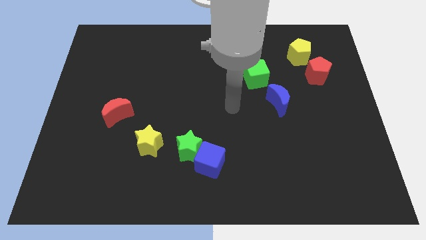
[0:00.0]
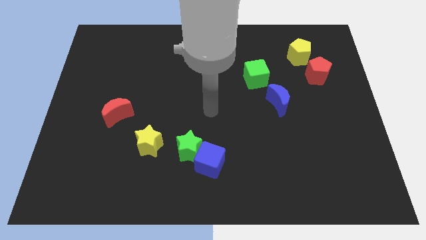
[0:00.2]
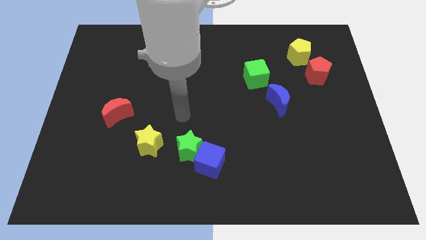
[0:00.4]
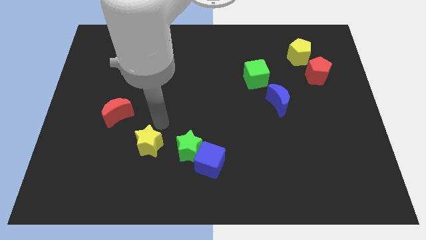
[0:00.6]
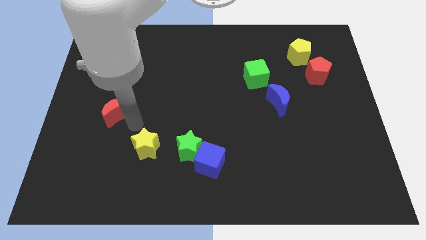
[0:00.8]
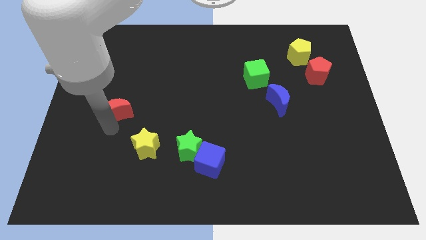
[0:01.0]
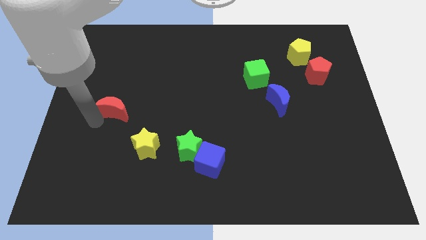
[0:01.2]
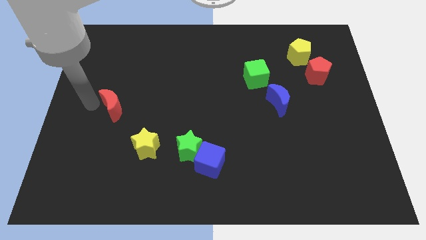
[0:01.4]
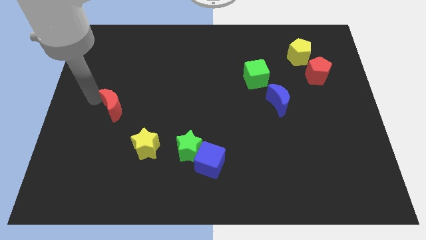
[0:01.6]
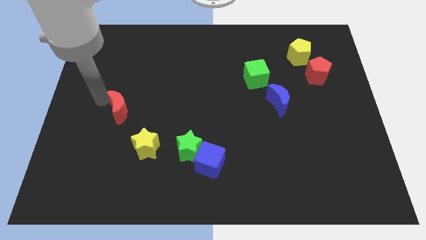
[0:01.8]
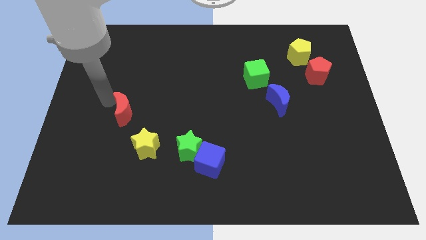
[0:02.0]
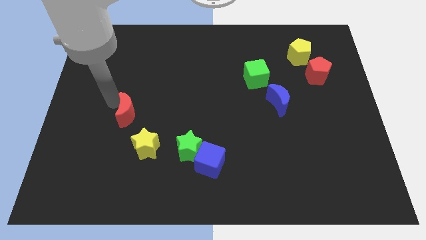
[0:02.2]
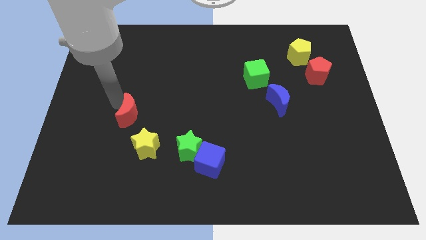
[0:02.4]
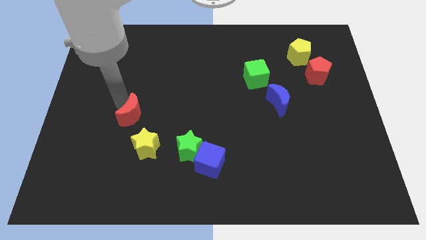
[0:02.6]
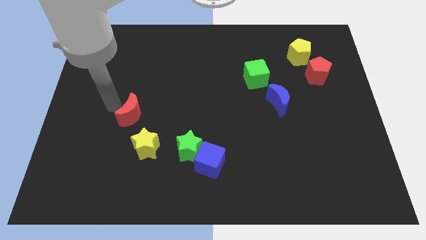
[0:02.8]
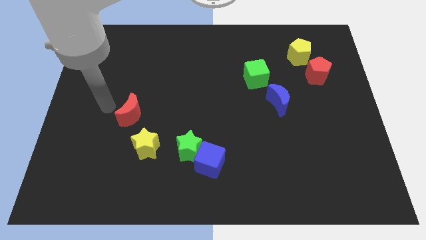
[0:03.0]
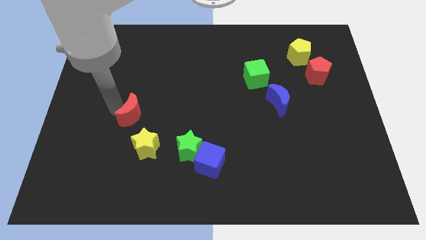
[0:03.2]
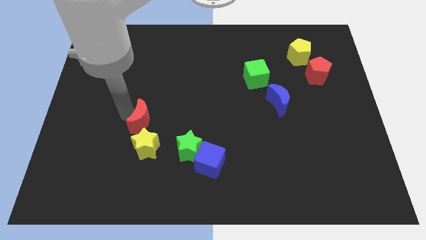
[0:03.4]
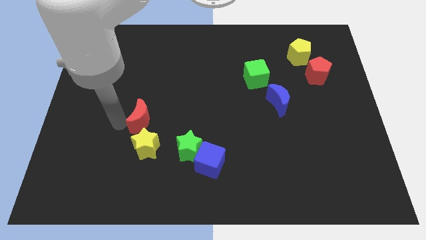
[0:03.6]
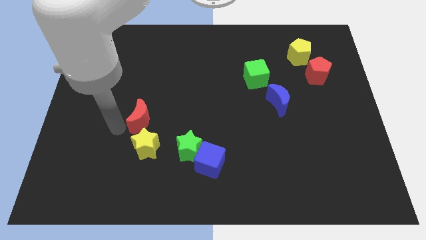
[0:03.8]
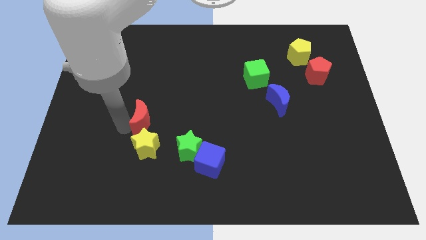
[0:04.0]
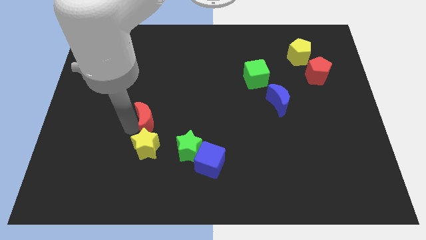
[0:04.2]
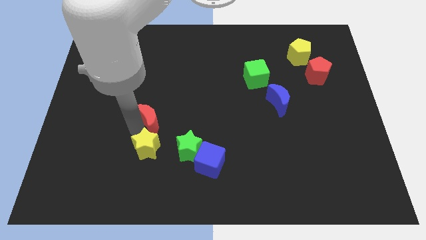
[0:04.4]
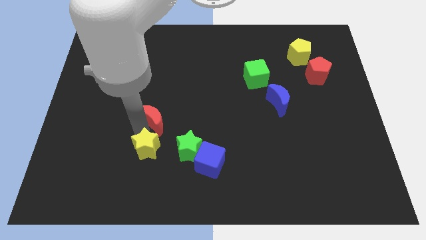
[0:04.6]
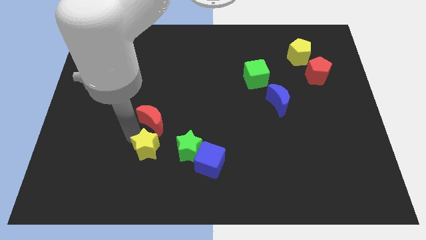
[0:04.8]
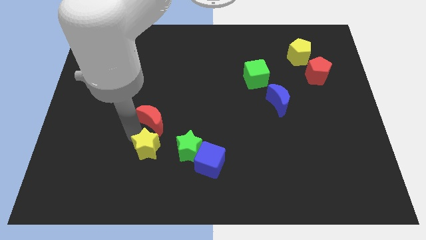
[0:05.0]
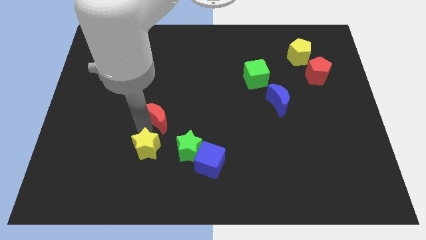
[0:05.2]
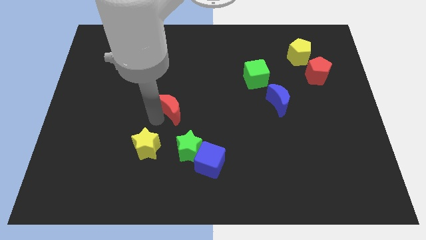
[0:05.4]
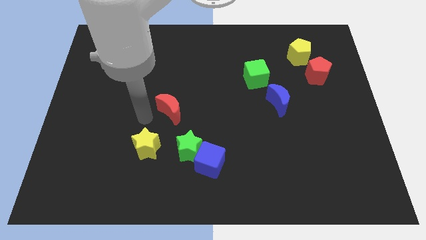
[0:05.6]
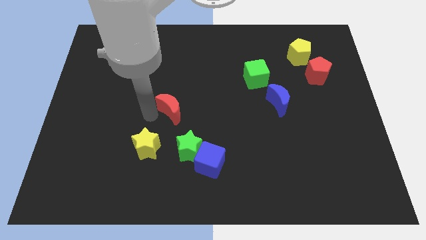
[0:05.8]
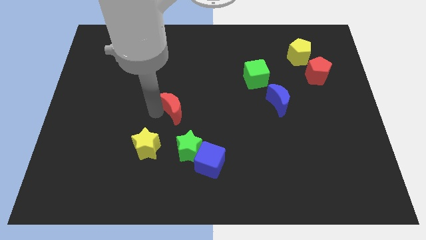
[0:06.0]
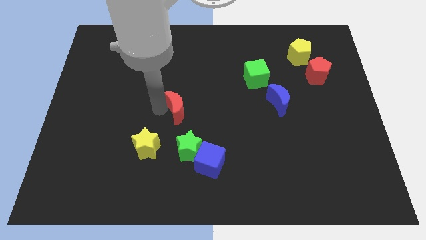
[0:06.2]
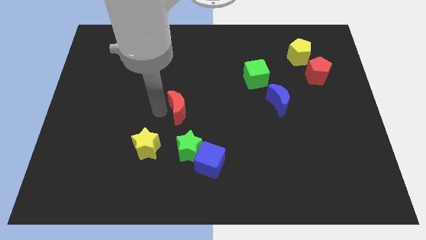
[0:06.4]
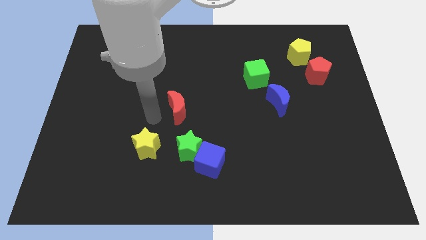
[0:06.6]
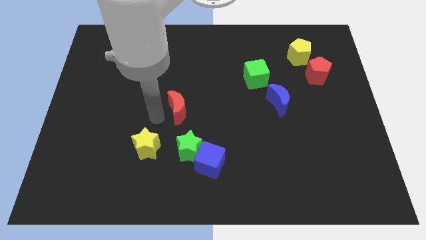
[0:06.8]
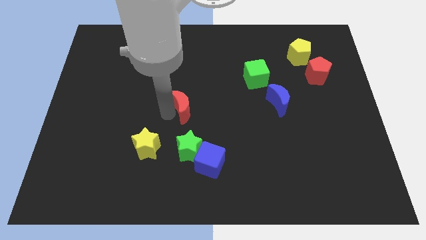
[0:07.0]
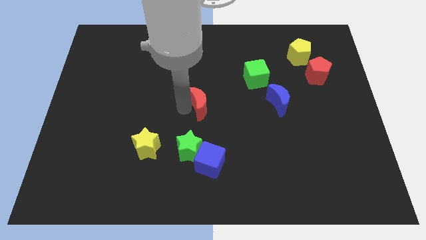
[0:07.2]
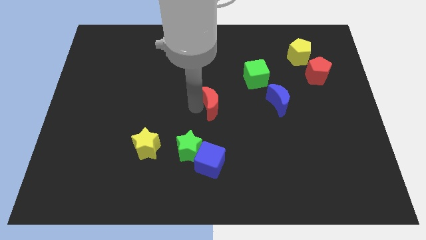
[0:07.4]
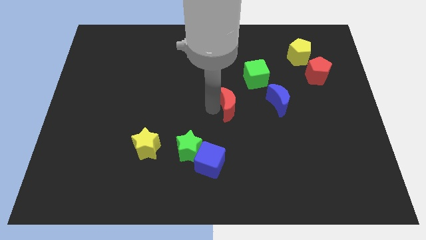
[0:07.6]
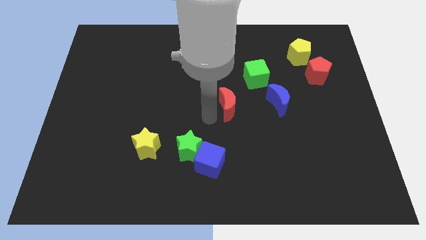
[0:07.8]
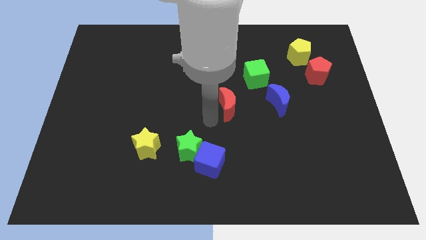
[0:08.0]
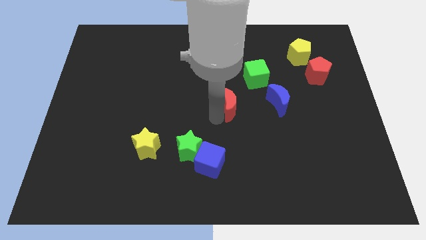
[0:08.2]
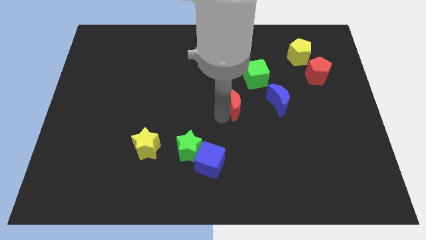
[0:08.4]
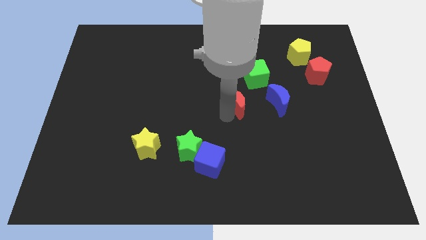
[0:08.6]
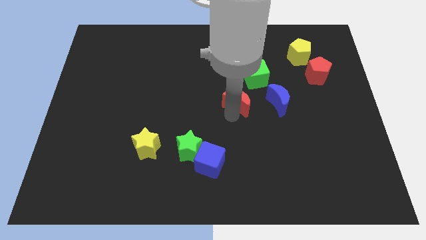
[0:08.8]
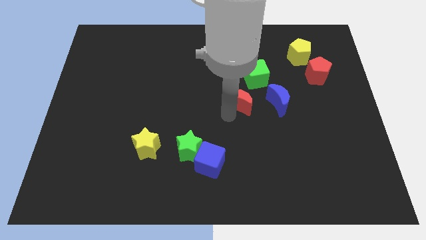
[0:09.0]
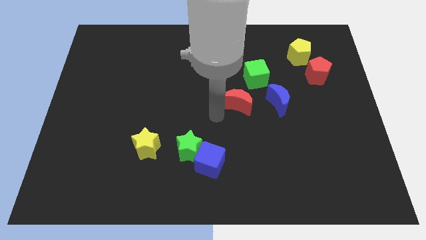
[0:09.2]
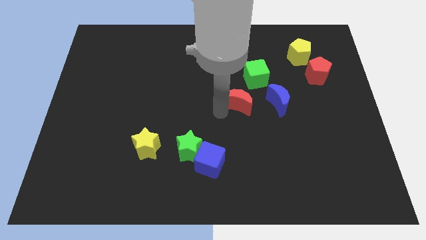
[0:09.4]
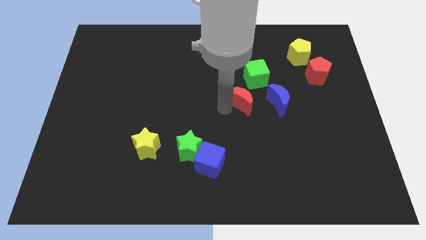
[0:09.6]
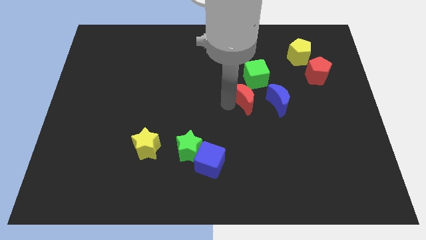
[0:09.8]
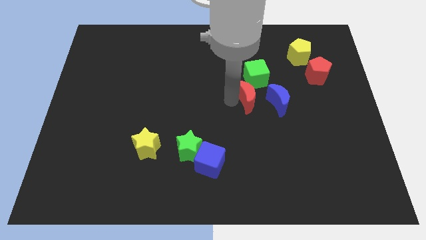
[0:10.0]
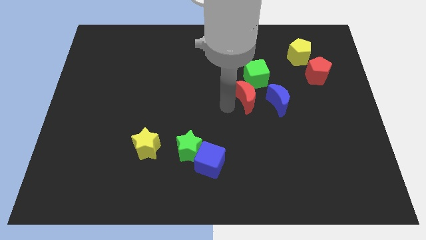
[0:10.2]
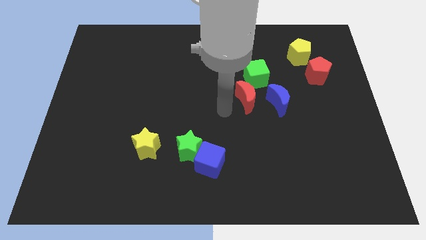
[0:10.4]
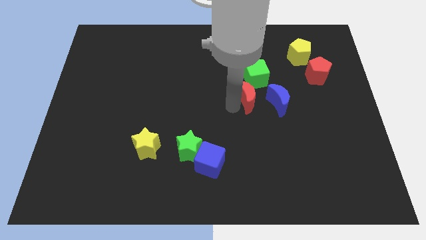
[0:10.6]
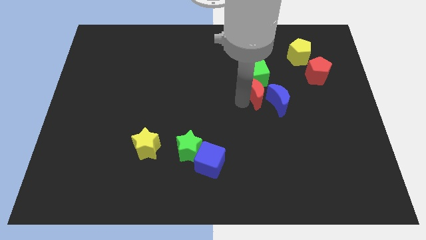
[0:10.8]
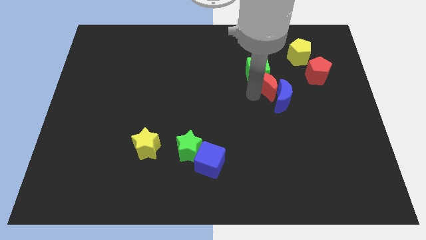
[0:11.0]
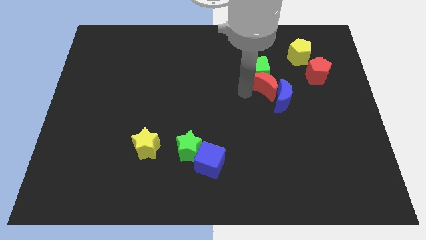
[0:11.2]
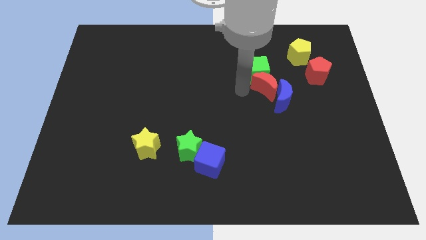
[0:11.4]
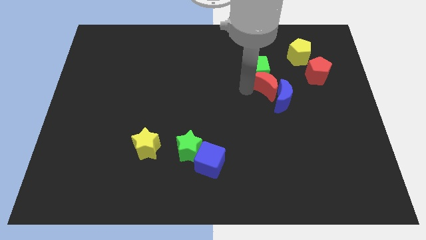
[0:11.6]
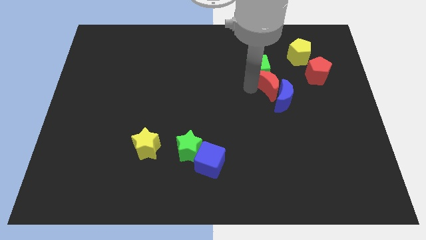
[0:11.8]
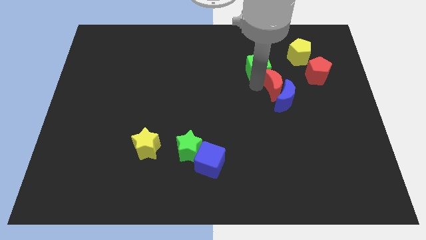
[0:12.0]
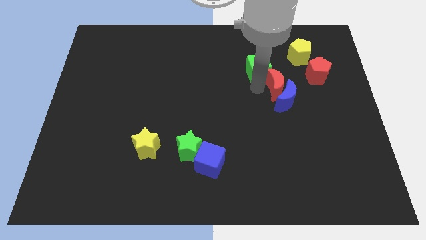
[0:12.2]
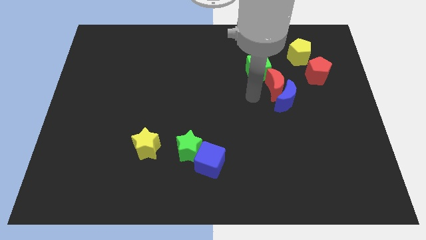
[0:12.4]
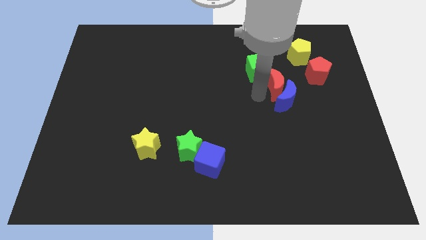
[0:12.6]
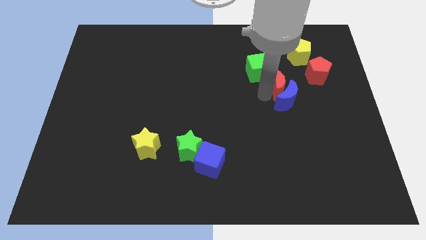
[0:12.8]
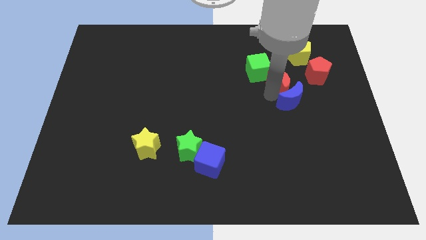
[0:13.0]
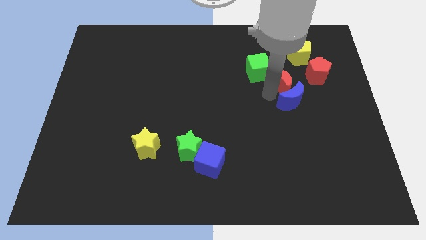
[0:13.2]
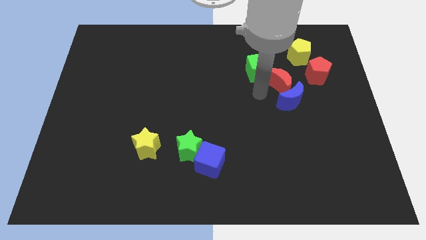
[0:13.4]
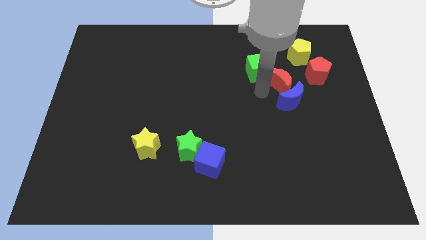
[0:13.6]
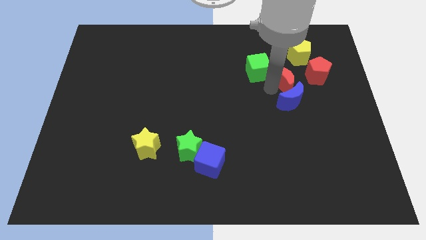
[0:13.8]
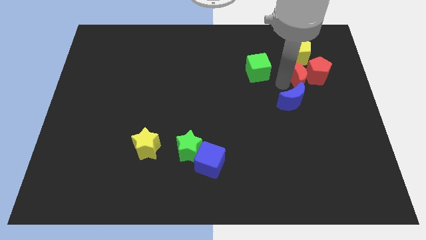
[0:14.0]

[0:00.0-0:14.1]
move the red moon close to the red pentagon

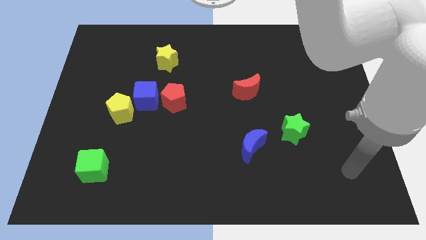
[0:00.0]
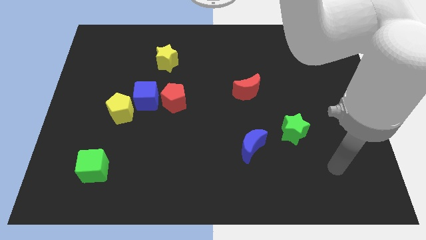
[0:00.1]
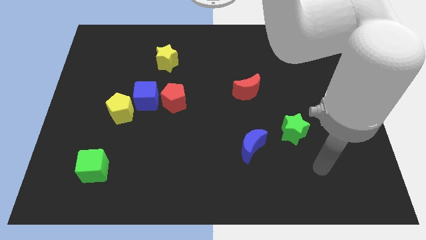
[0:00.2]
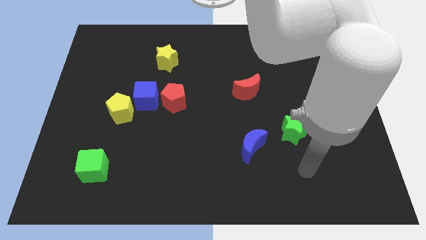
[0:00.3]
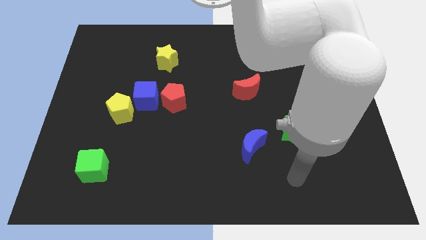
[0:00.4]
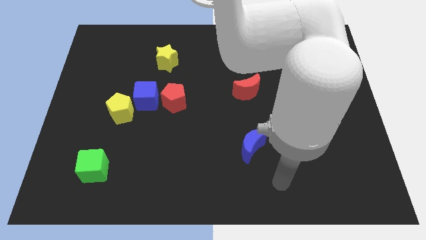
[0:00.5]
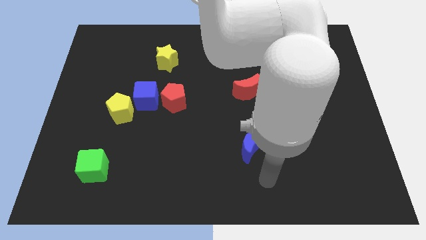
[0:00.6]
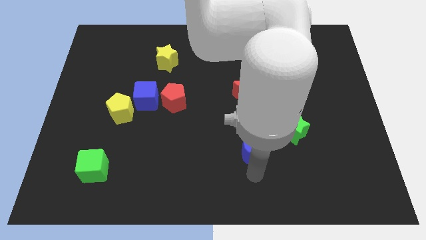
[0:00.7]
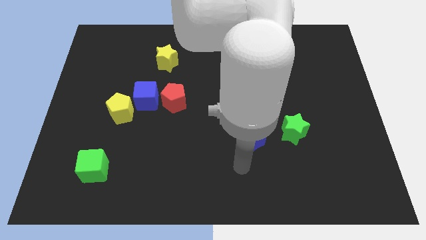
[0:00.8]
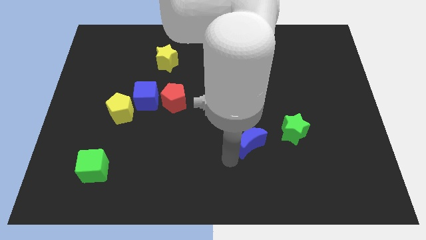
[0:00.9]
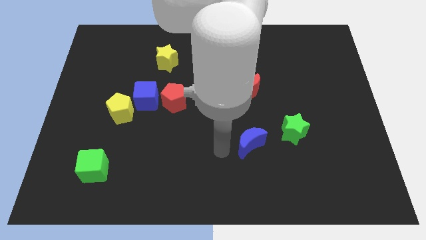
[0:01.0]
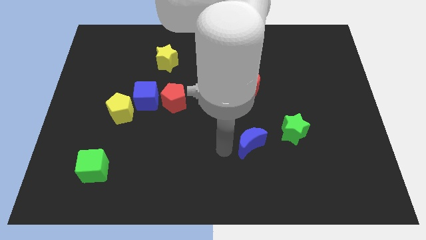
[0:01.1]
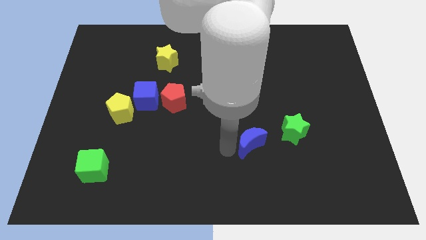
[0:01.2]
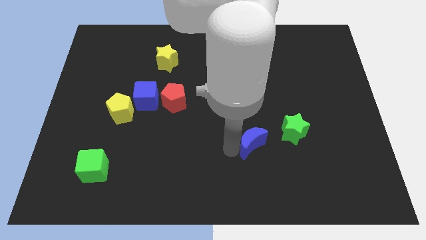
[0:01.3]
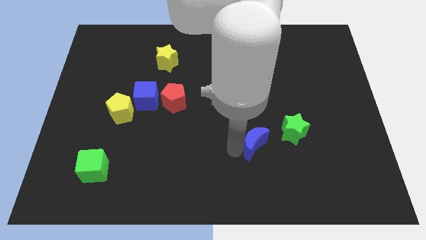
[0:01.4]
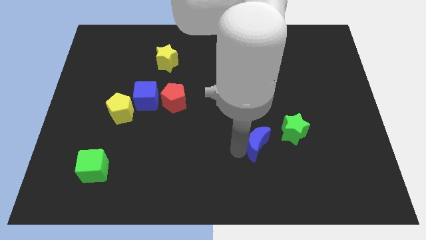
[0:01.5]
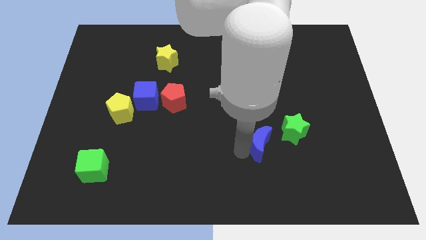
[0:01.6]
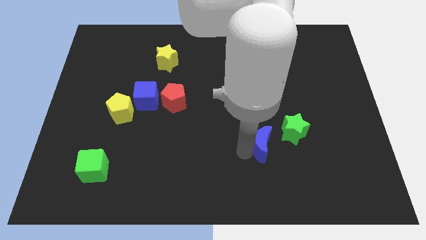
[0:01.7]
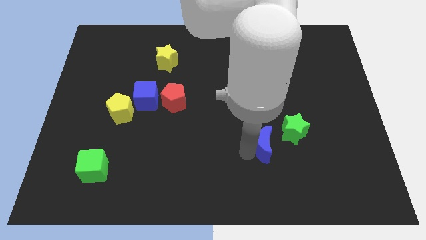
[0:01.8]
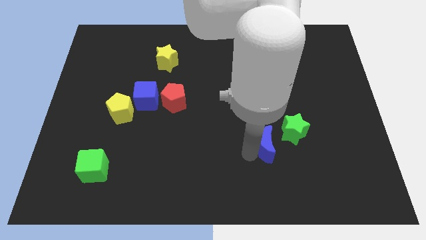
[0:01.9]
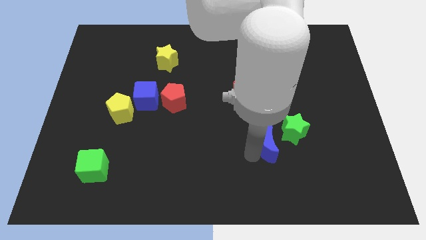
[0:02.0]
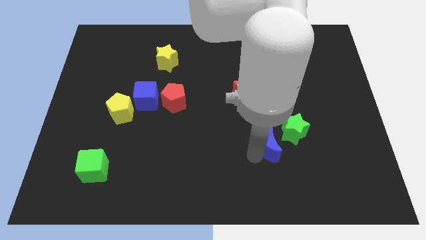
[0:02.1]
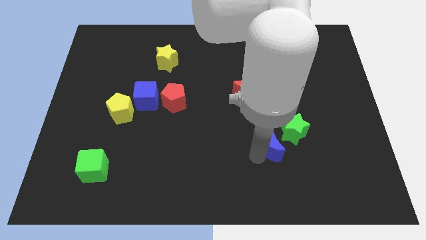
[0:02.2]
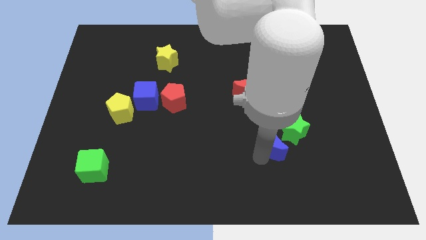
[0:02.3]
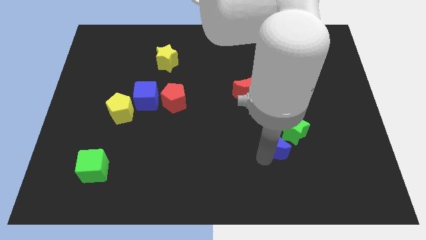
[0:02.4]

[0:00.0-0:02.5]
move the blue moon towards the green star
